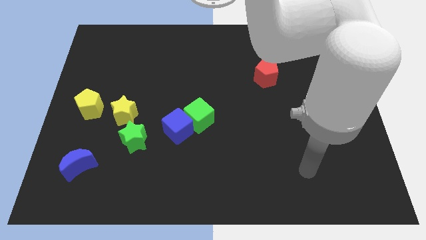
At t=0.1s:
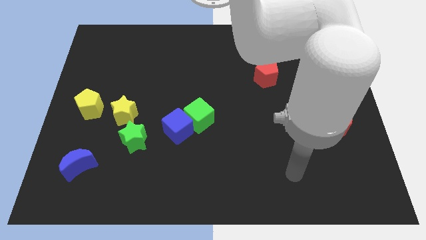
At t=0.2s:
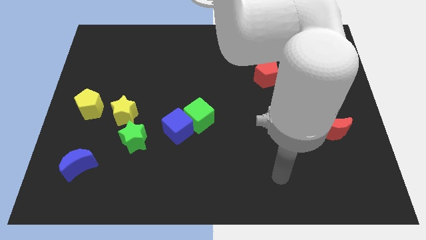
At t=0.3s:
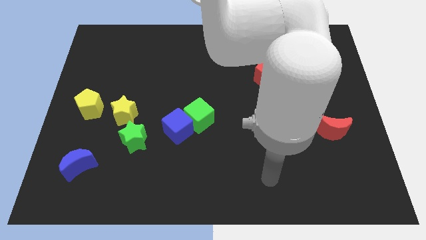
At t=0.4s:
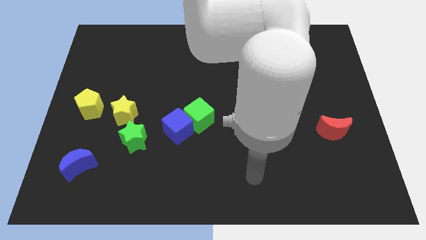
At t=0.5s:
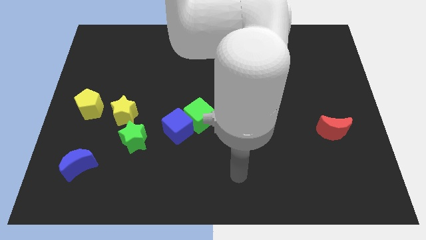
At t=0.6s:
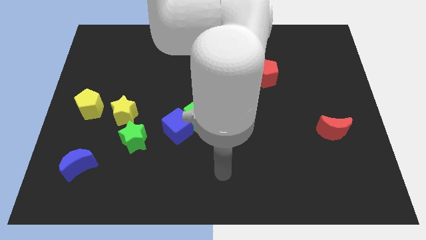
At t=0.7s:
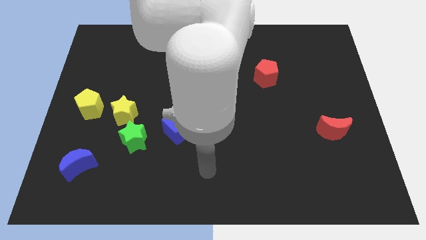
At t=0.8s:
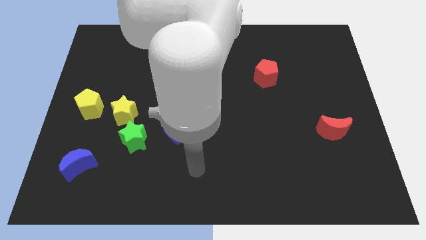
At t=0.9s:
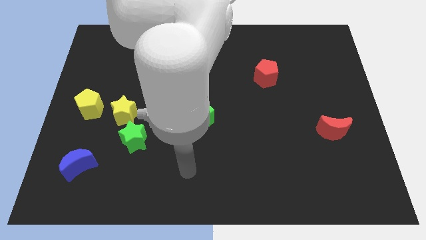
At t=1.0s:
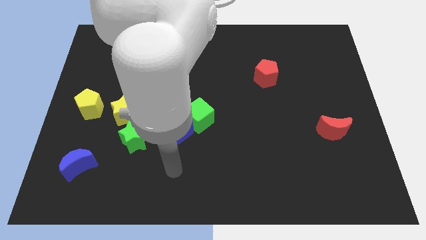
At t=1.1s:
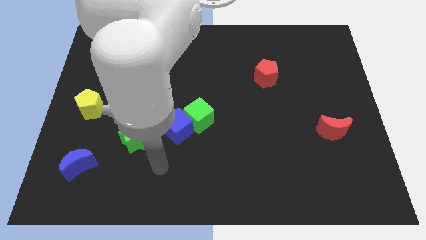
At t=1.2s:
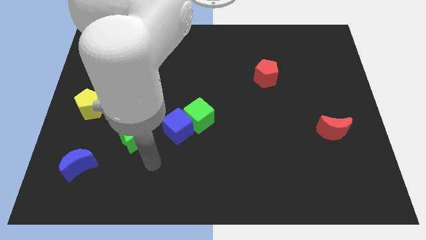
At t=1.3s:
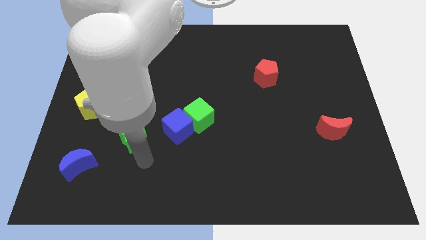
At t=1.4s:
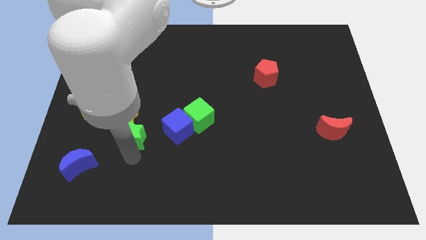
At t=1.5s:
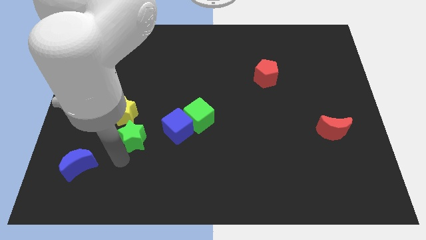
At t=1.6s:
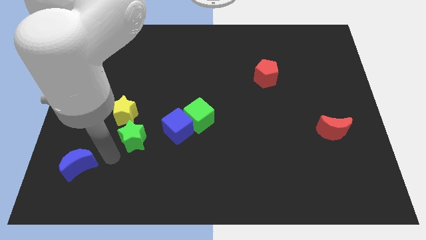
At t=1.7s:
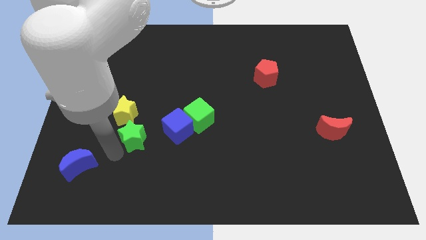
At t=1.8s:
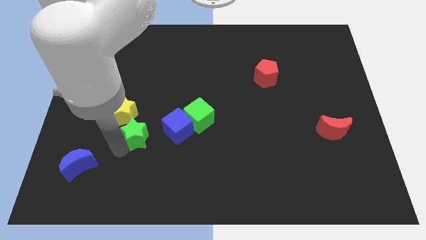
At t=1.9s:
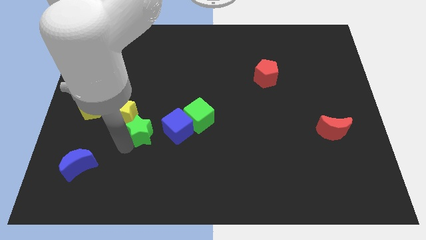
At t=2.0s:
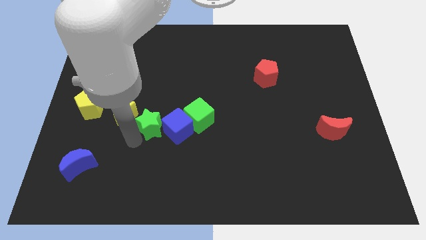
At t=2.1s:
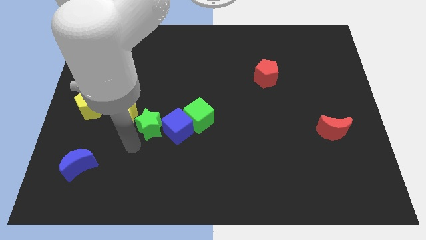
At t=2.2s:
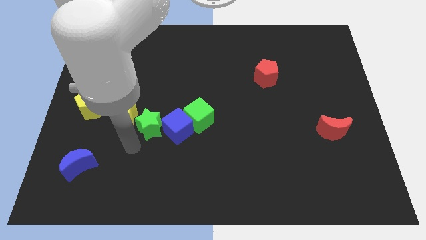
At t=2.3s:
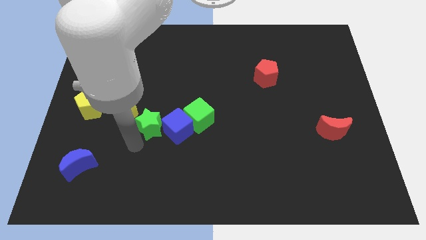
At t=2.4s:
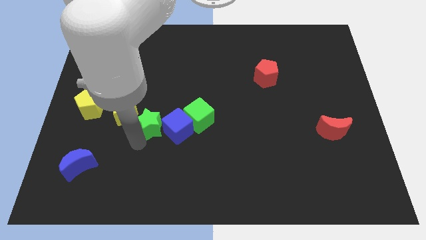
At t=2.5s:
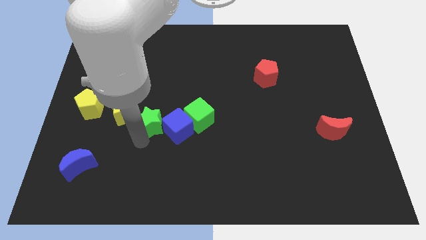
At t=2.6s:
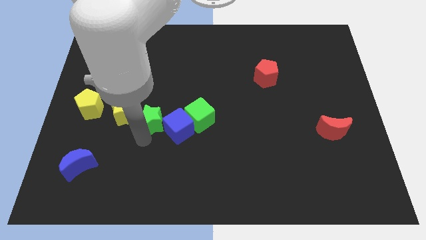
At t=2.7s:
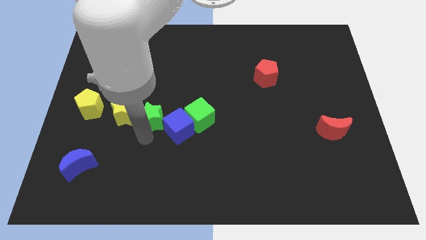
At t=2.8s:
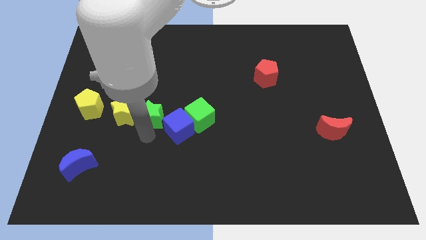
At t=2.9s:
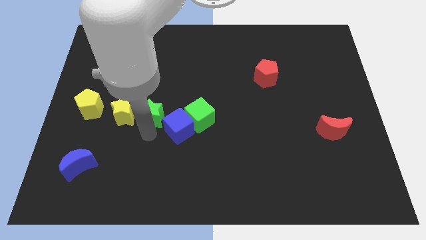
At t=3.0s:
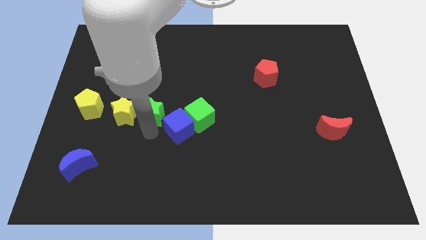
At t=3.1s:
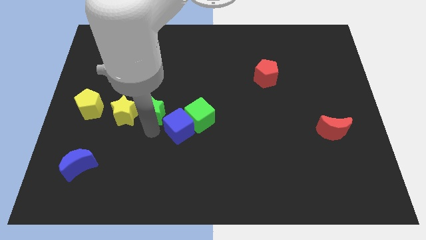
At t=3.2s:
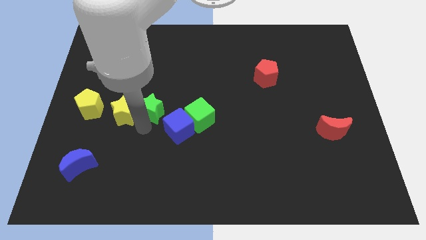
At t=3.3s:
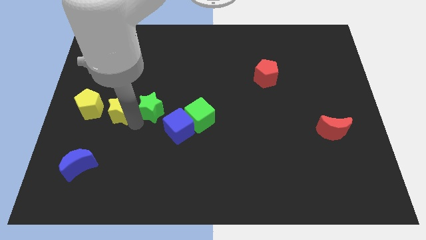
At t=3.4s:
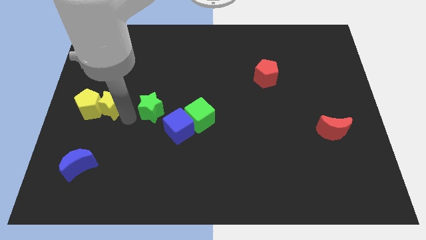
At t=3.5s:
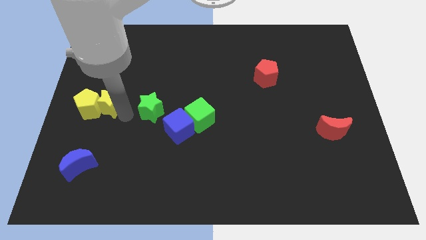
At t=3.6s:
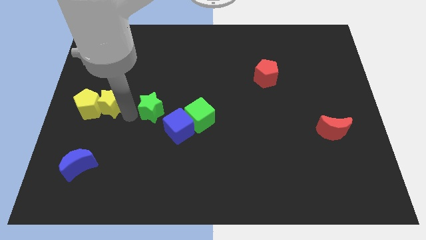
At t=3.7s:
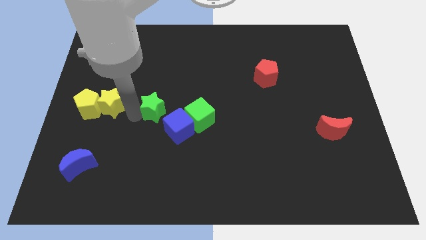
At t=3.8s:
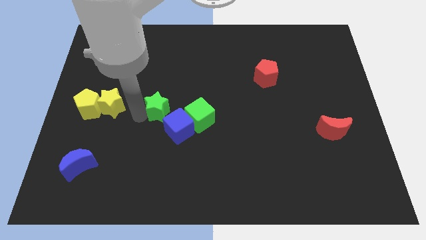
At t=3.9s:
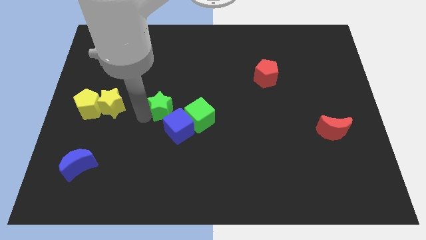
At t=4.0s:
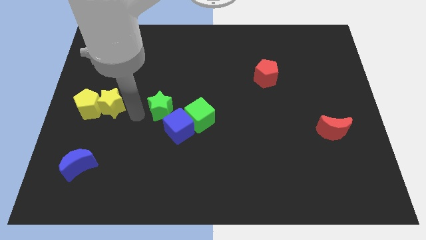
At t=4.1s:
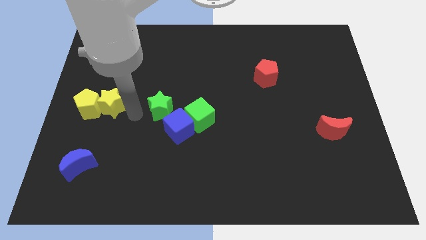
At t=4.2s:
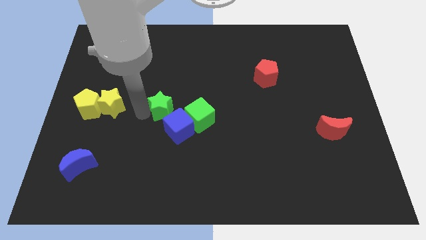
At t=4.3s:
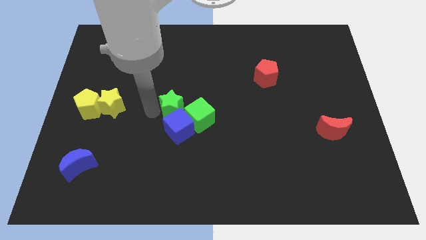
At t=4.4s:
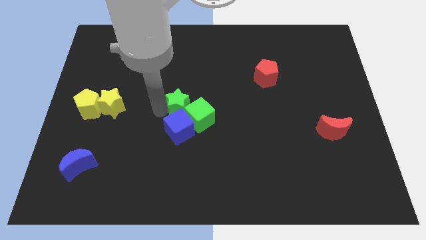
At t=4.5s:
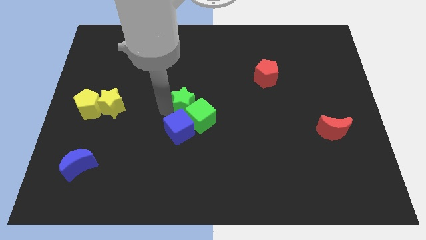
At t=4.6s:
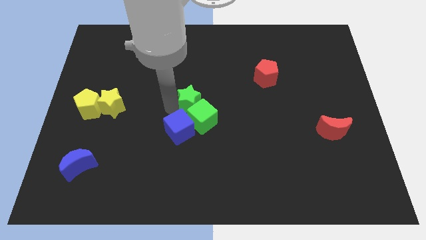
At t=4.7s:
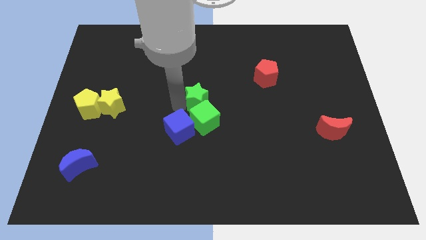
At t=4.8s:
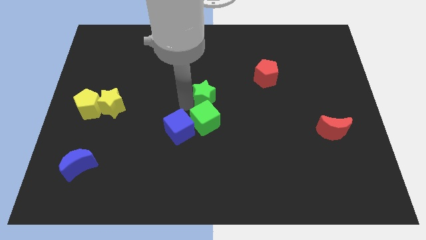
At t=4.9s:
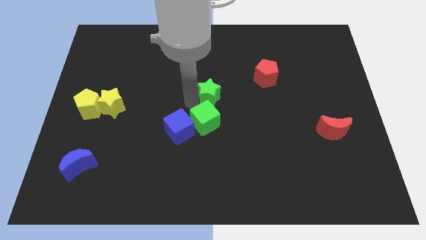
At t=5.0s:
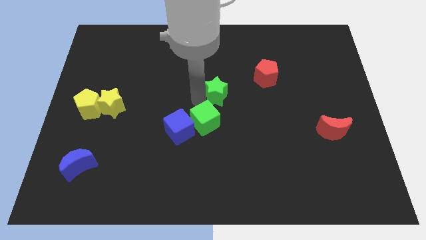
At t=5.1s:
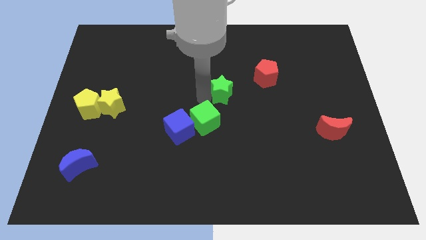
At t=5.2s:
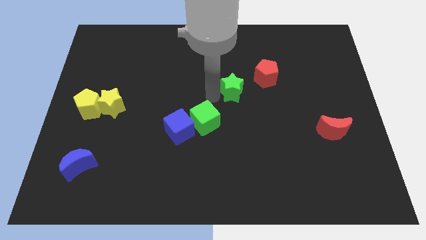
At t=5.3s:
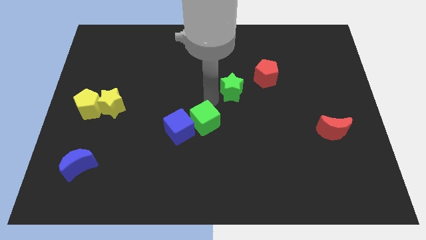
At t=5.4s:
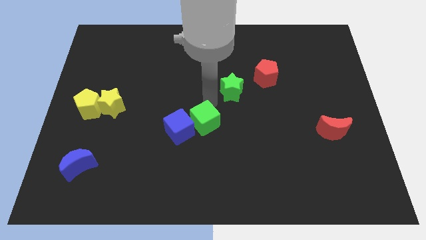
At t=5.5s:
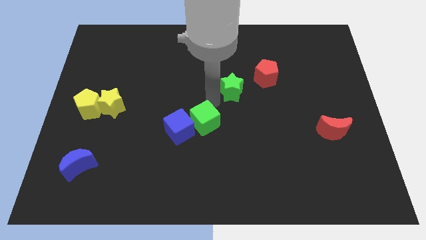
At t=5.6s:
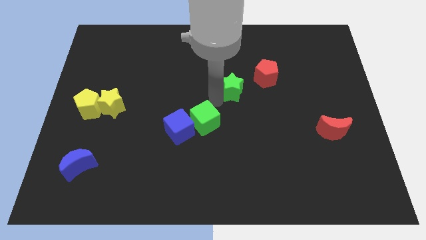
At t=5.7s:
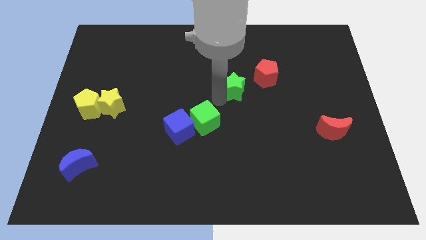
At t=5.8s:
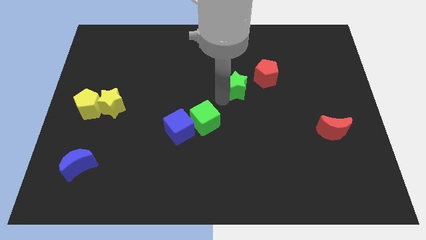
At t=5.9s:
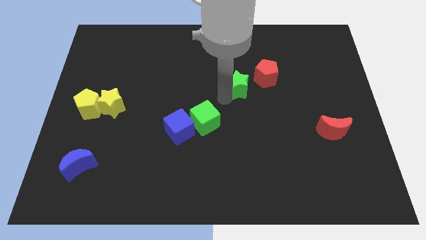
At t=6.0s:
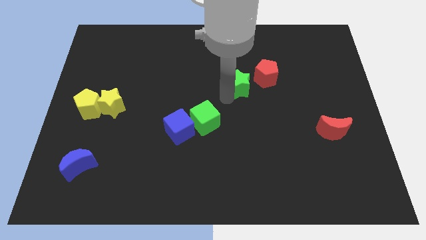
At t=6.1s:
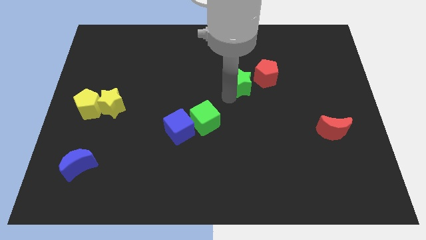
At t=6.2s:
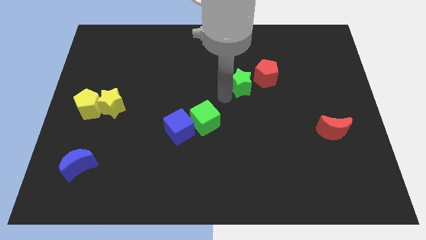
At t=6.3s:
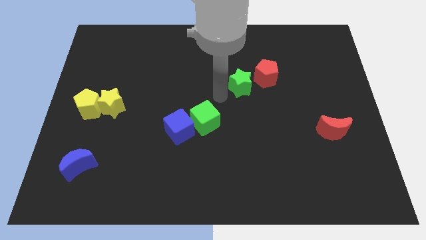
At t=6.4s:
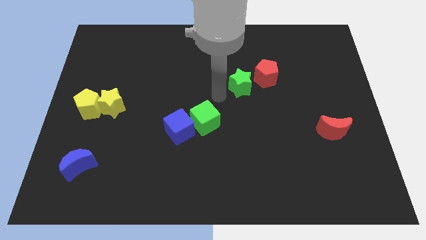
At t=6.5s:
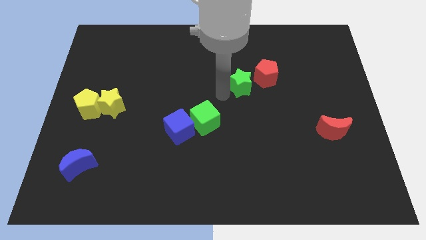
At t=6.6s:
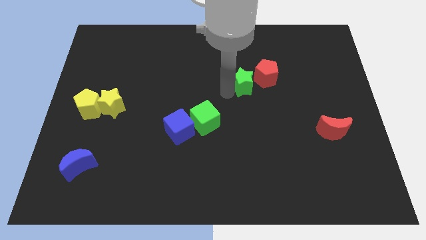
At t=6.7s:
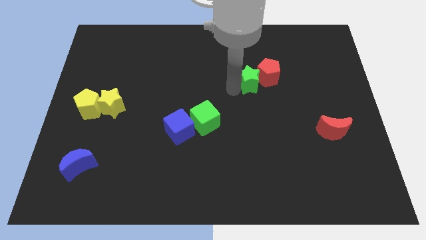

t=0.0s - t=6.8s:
slide the green star towards the red pentagon
